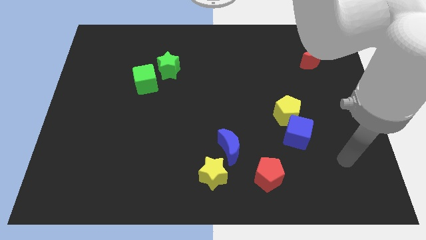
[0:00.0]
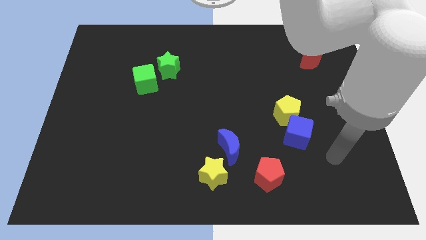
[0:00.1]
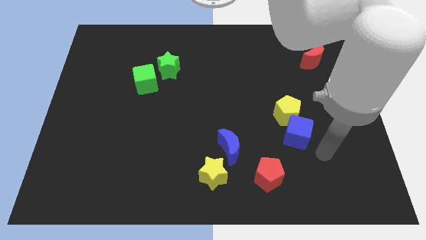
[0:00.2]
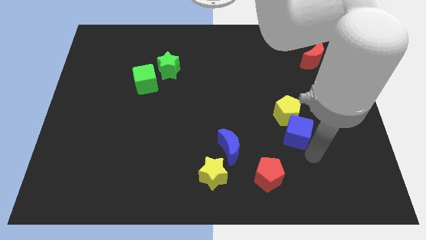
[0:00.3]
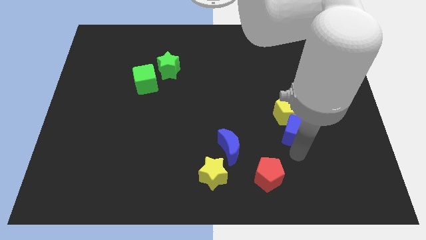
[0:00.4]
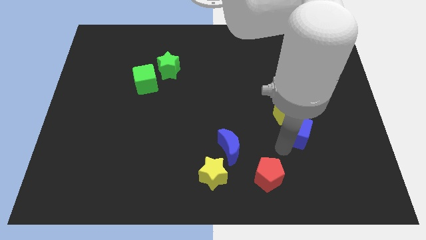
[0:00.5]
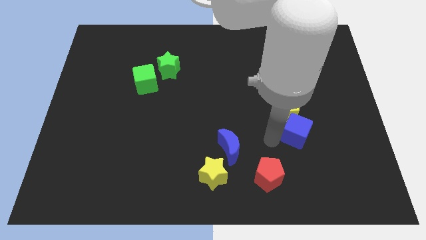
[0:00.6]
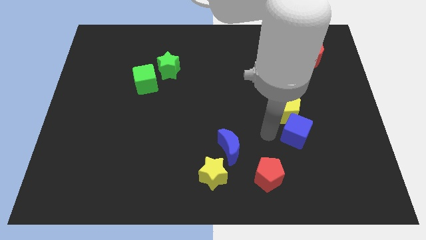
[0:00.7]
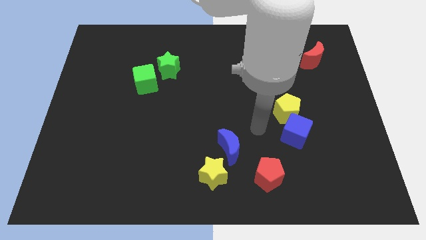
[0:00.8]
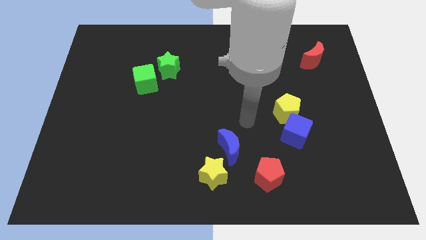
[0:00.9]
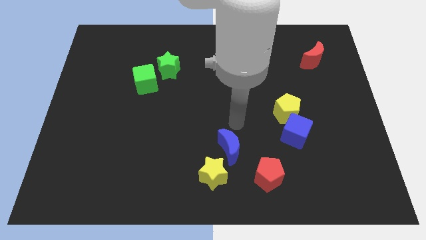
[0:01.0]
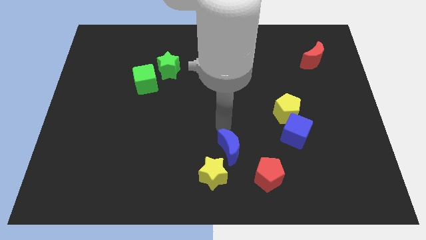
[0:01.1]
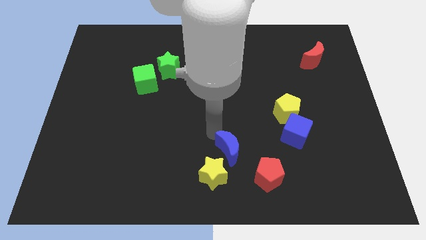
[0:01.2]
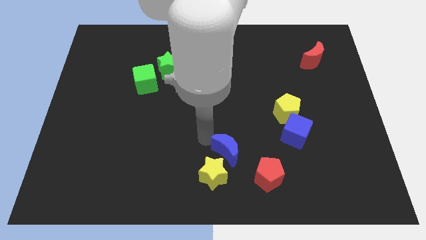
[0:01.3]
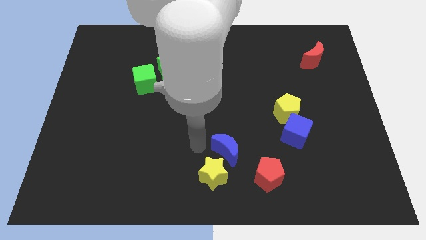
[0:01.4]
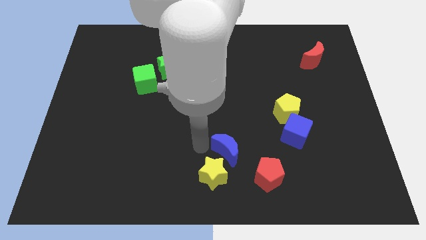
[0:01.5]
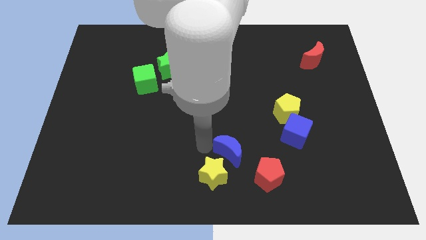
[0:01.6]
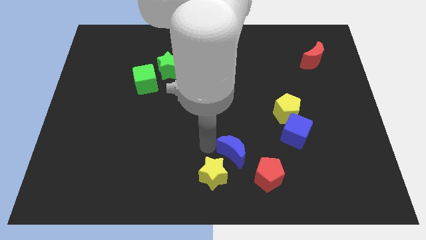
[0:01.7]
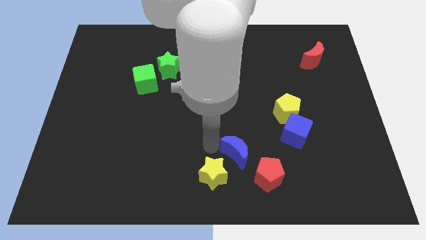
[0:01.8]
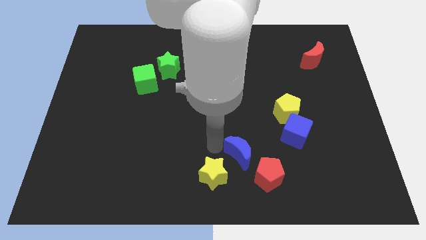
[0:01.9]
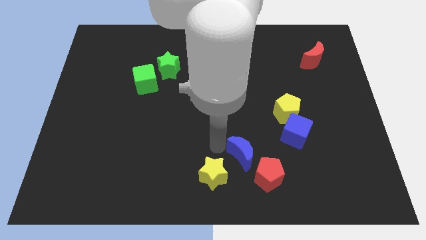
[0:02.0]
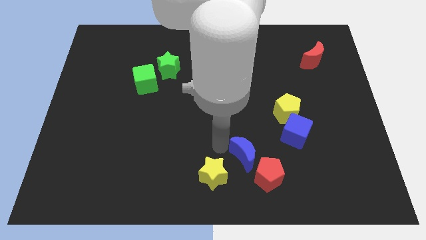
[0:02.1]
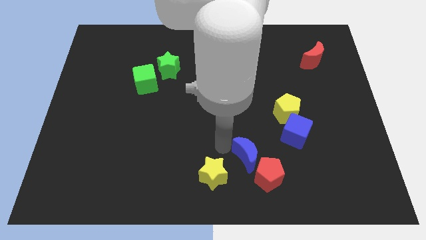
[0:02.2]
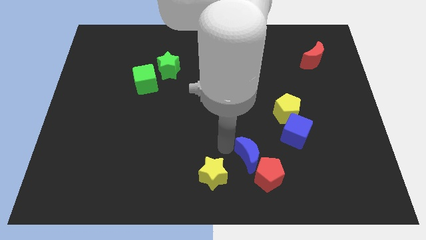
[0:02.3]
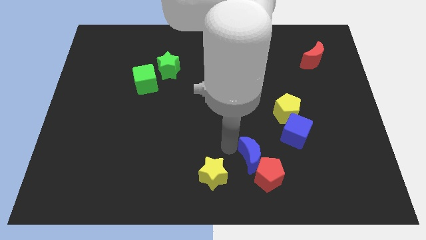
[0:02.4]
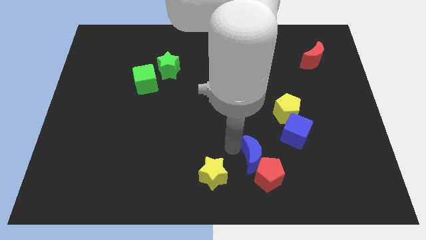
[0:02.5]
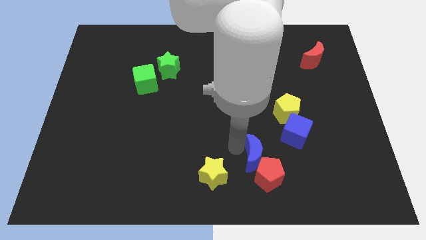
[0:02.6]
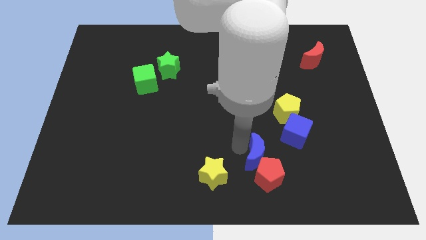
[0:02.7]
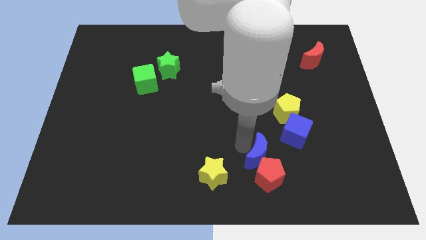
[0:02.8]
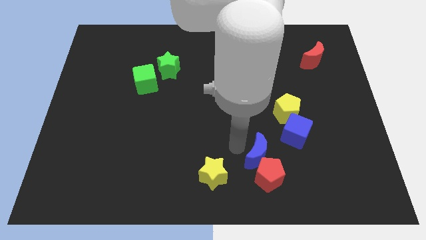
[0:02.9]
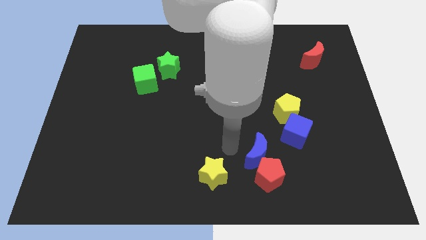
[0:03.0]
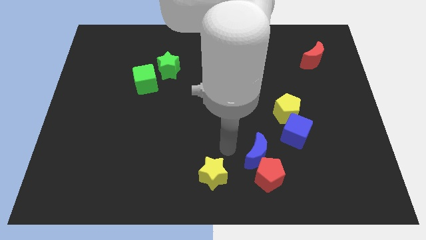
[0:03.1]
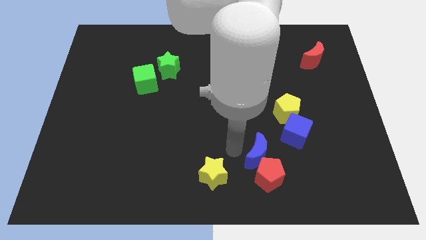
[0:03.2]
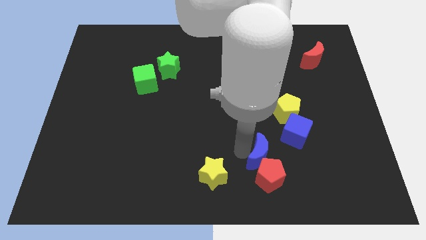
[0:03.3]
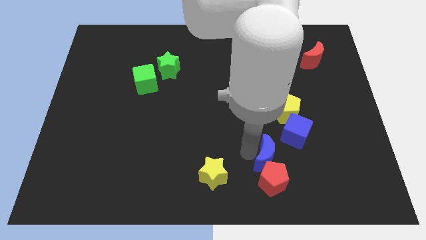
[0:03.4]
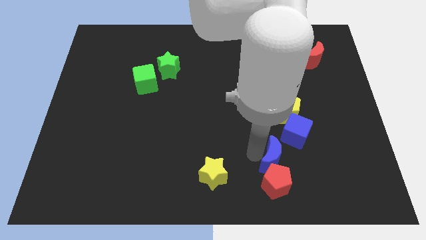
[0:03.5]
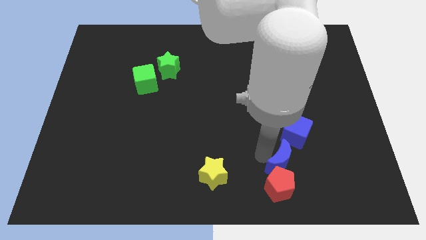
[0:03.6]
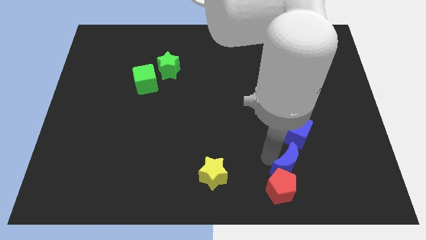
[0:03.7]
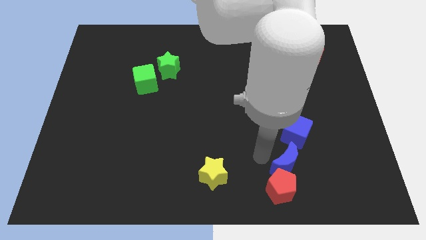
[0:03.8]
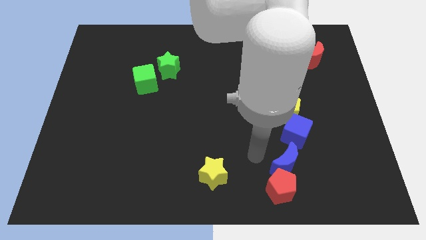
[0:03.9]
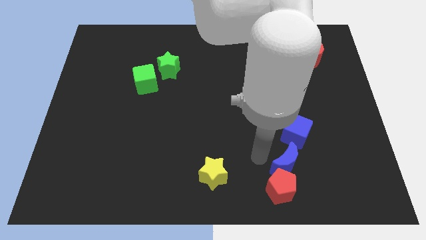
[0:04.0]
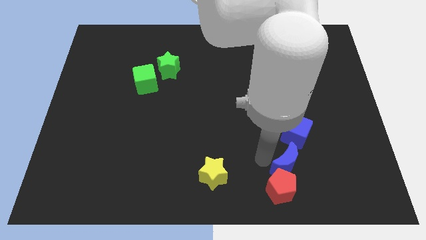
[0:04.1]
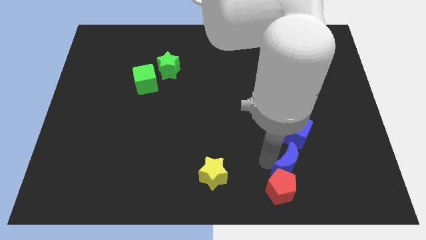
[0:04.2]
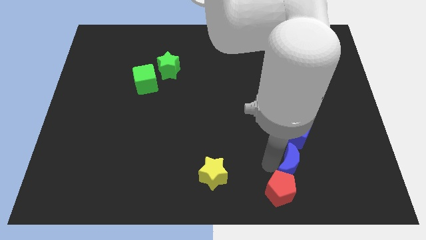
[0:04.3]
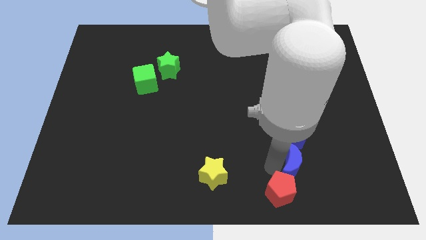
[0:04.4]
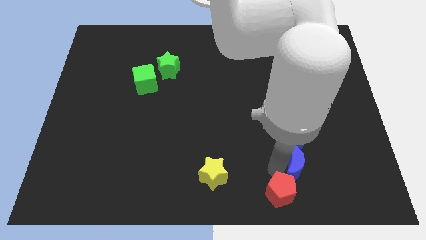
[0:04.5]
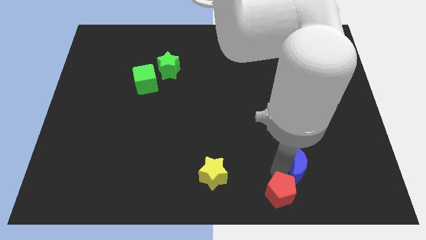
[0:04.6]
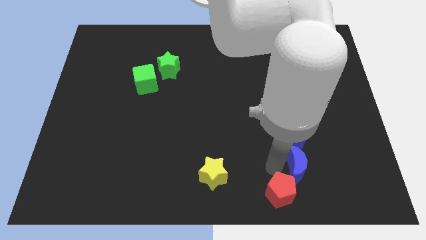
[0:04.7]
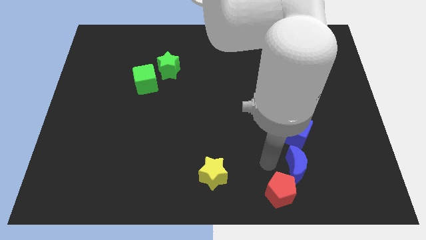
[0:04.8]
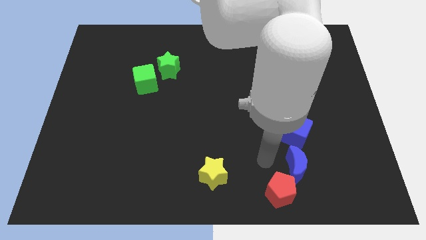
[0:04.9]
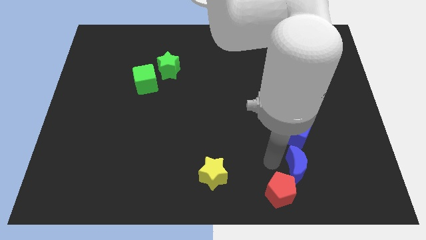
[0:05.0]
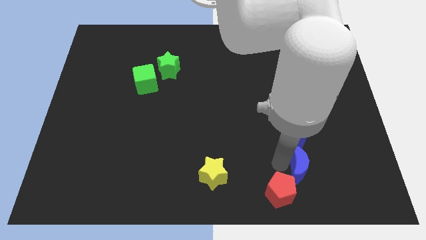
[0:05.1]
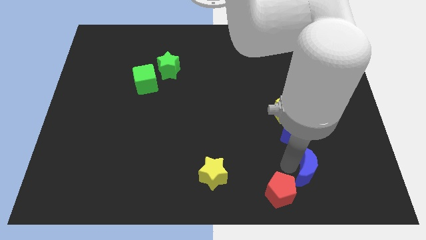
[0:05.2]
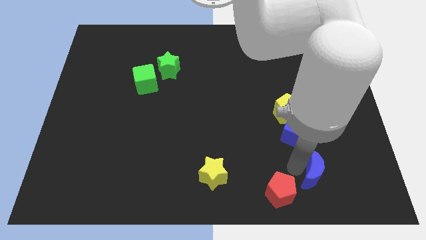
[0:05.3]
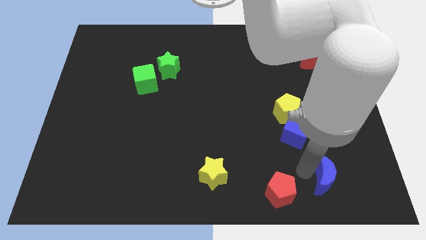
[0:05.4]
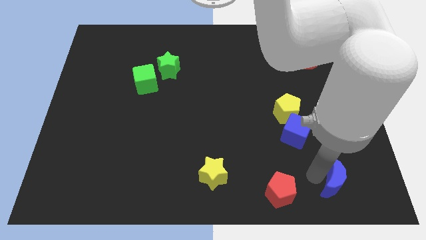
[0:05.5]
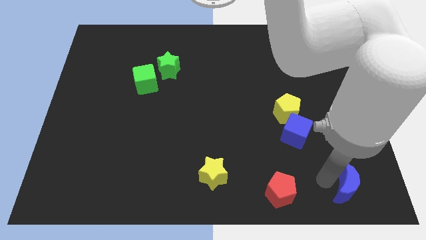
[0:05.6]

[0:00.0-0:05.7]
push the blue moon to the bottom right

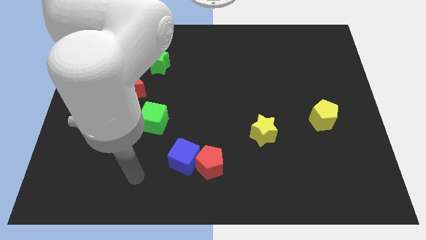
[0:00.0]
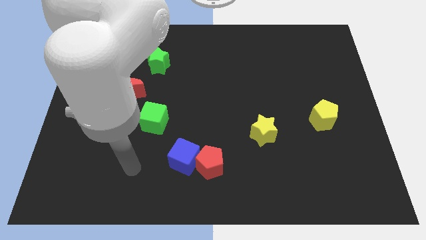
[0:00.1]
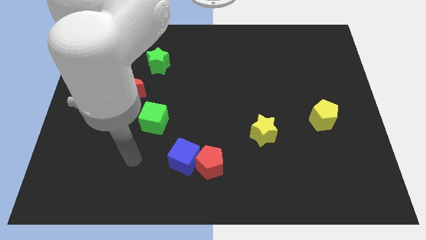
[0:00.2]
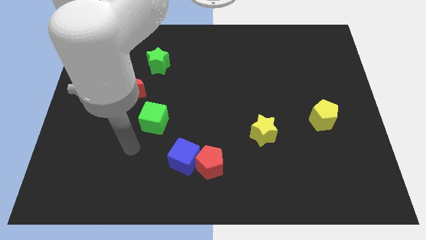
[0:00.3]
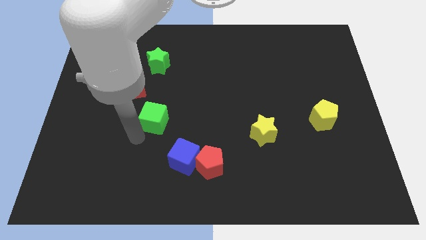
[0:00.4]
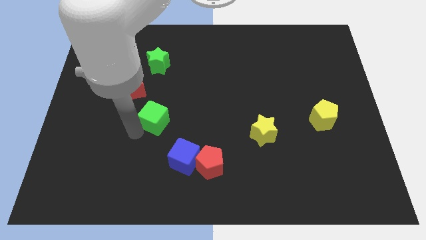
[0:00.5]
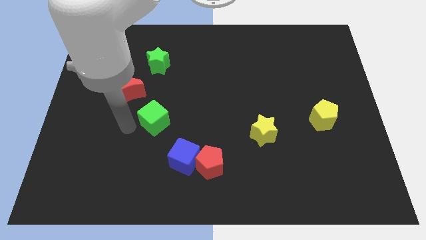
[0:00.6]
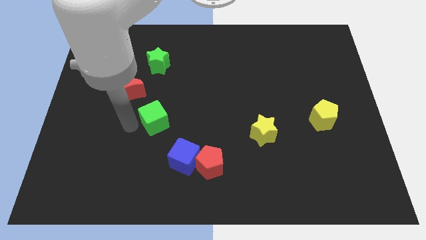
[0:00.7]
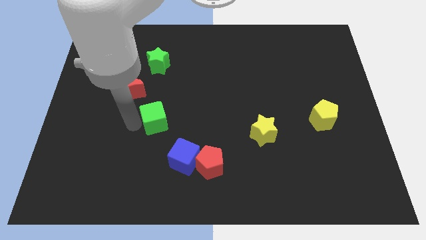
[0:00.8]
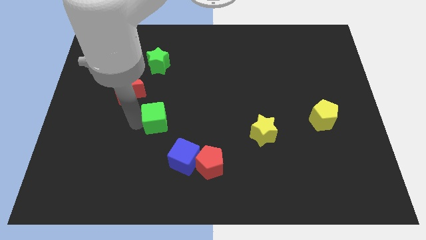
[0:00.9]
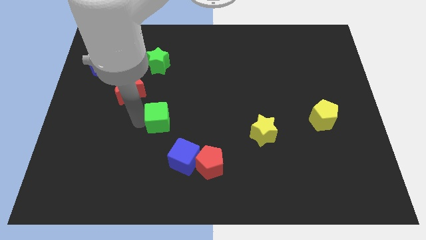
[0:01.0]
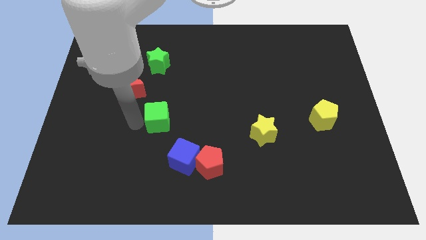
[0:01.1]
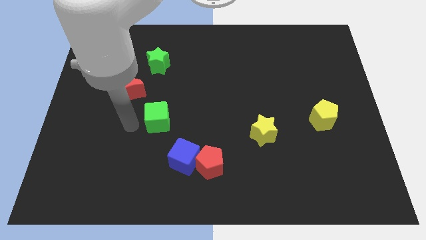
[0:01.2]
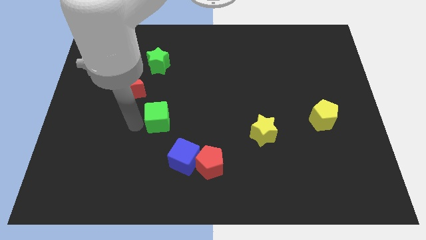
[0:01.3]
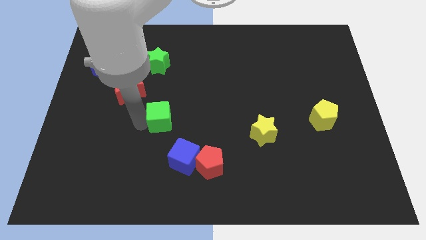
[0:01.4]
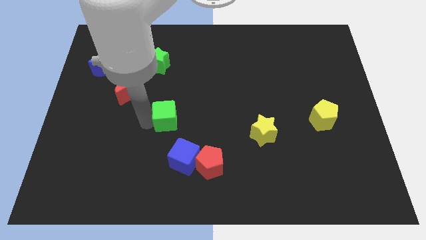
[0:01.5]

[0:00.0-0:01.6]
move the green cube to the middle
